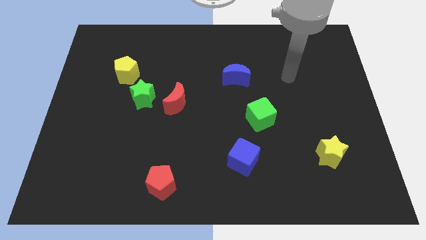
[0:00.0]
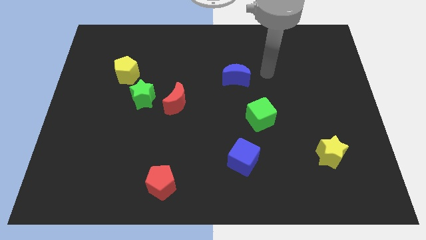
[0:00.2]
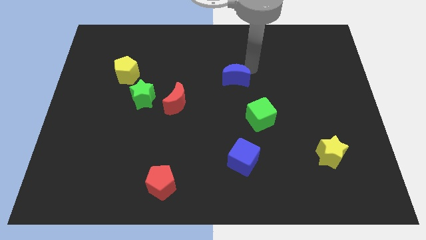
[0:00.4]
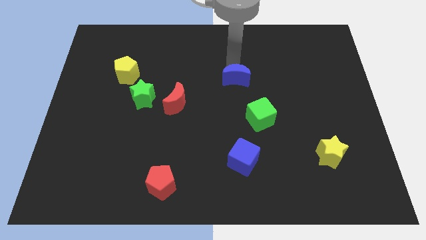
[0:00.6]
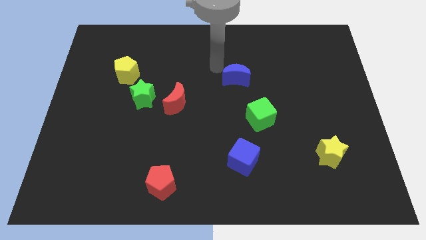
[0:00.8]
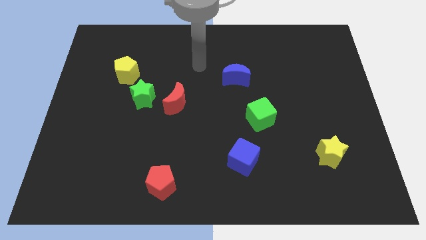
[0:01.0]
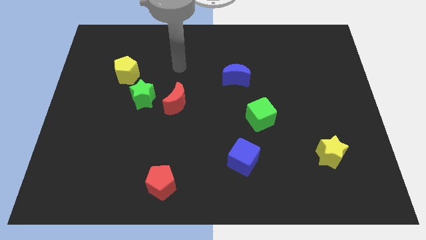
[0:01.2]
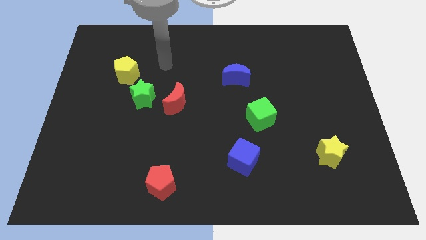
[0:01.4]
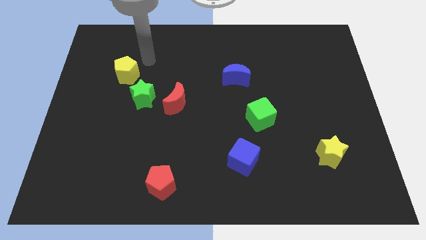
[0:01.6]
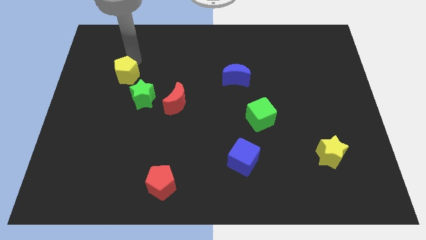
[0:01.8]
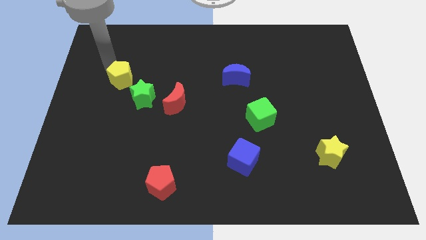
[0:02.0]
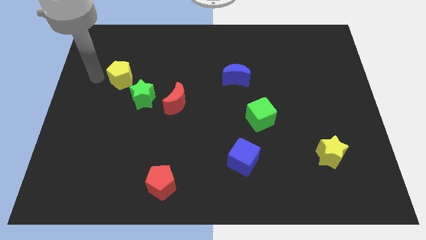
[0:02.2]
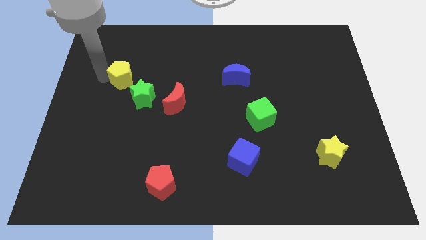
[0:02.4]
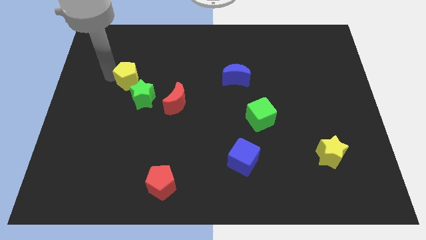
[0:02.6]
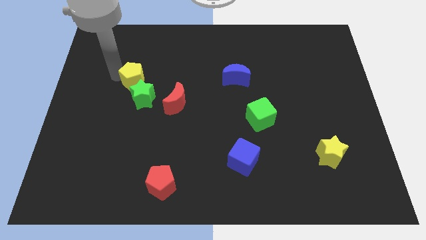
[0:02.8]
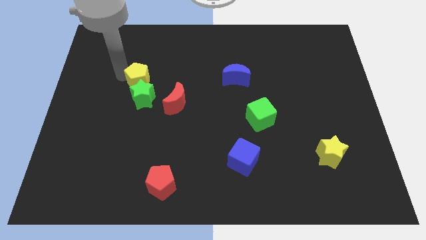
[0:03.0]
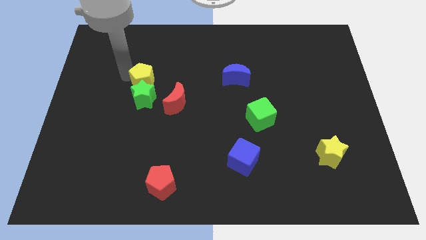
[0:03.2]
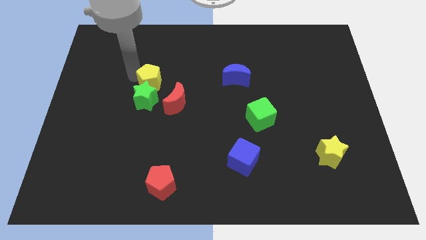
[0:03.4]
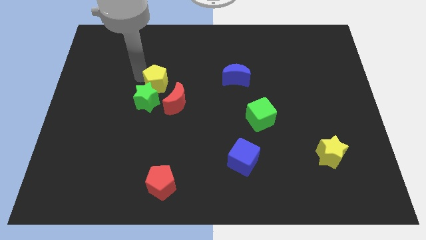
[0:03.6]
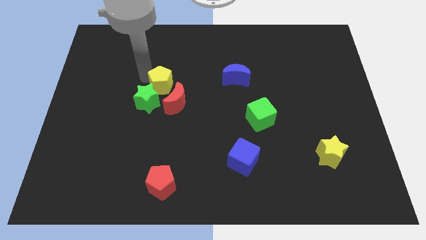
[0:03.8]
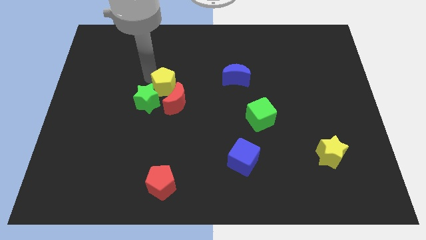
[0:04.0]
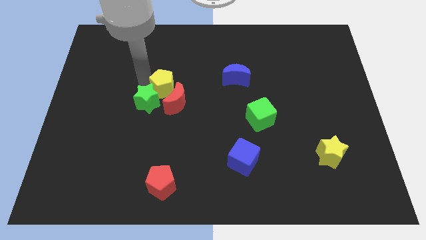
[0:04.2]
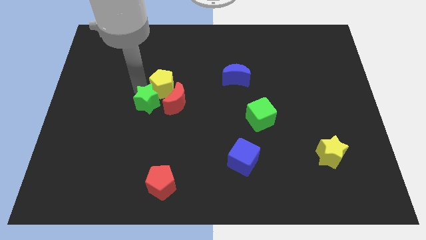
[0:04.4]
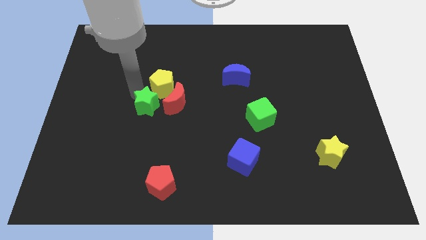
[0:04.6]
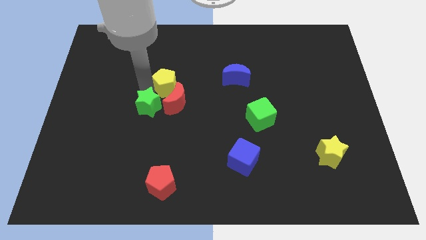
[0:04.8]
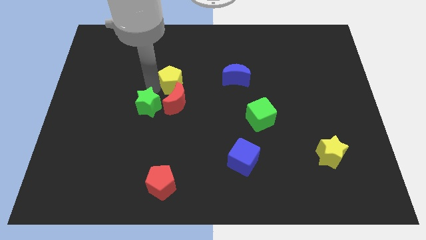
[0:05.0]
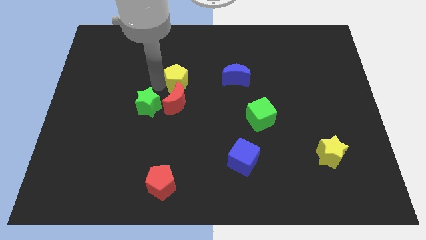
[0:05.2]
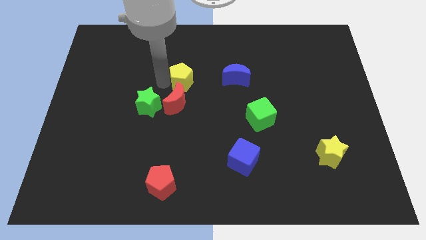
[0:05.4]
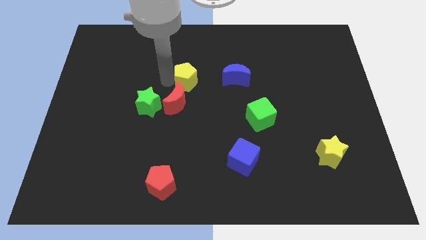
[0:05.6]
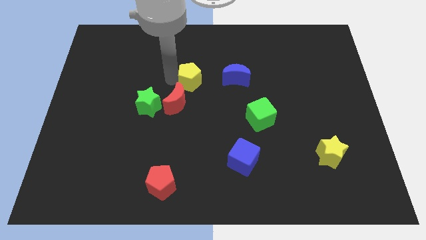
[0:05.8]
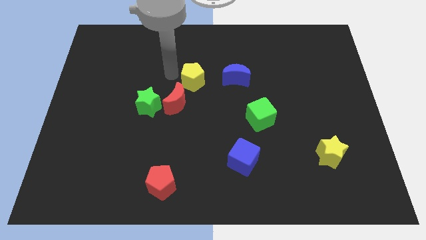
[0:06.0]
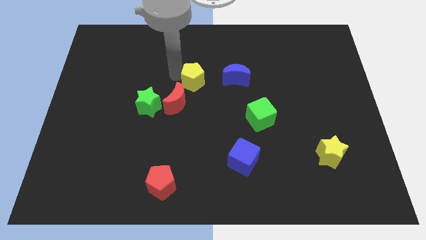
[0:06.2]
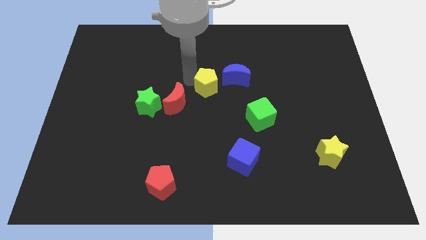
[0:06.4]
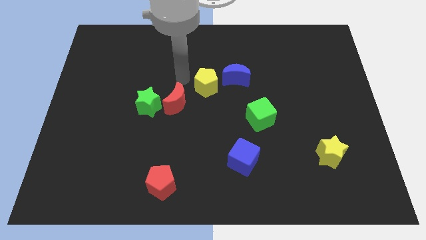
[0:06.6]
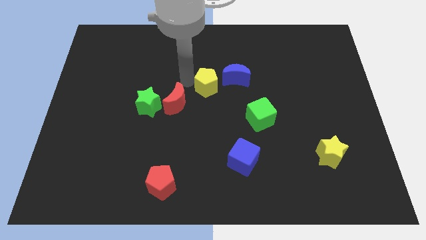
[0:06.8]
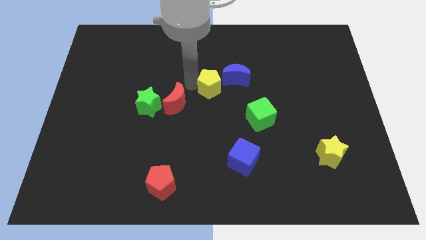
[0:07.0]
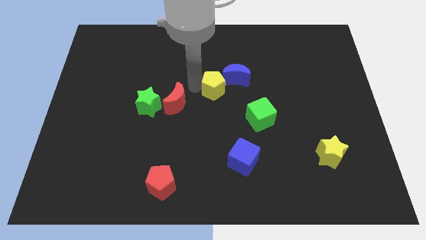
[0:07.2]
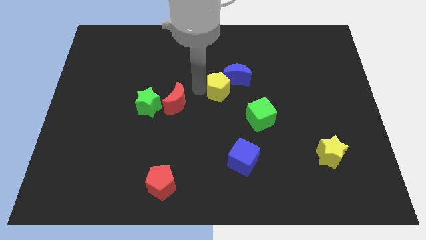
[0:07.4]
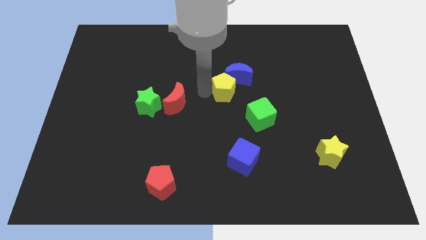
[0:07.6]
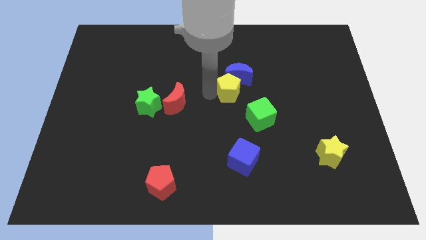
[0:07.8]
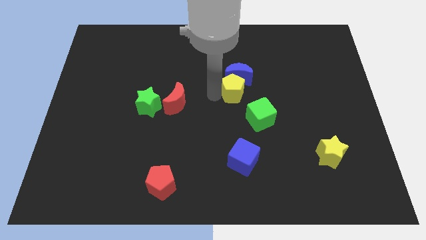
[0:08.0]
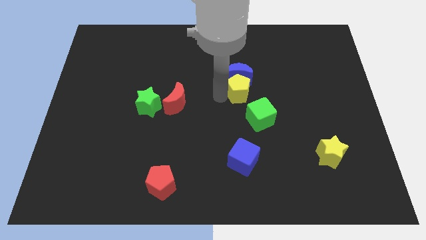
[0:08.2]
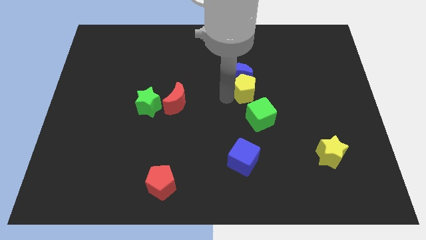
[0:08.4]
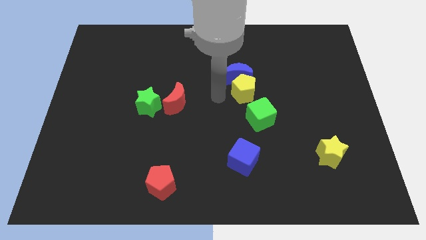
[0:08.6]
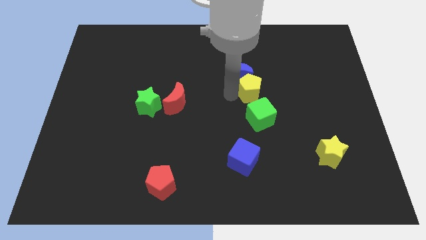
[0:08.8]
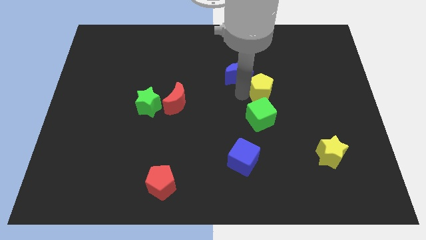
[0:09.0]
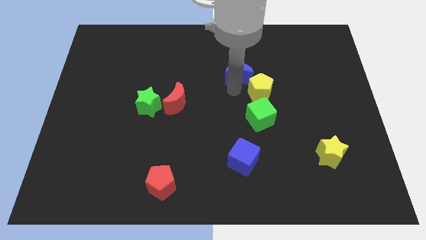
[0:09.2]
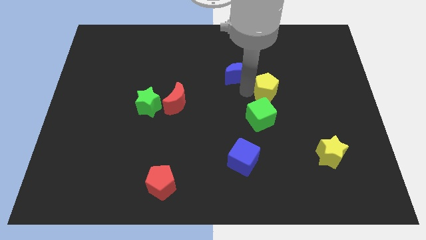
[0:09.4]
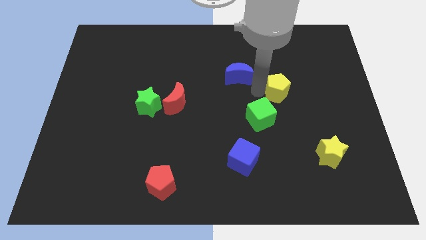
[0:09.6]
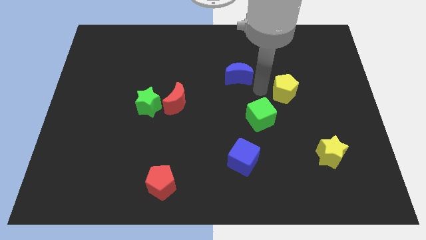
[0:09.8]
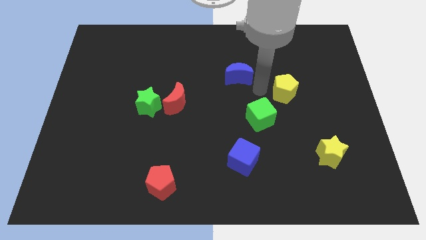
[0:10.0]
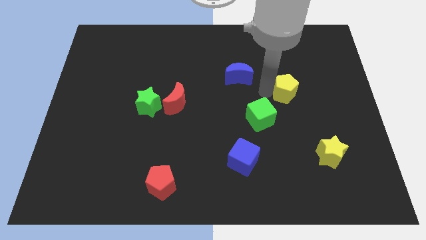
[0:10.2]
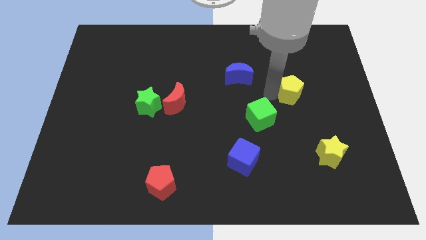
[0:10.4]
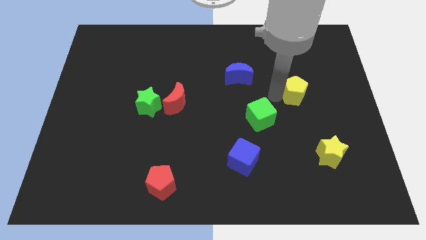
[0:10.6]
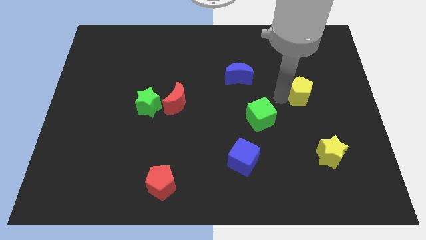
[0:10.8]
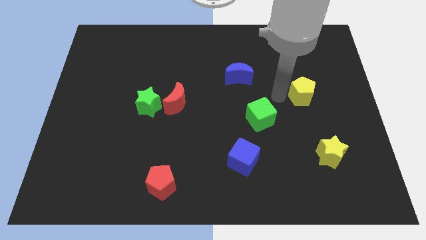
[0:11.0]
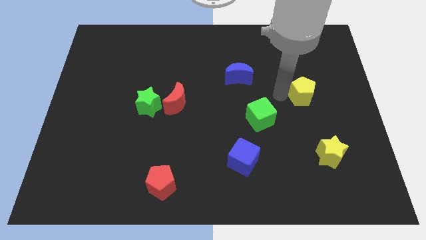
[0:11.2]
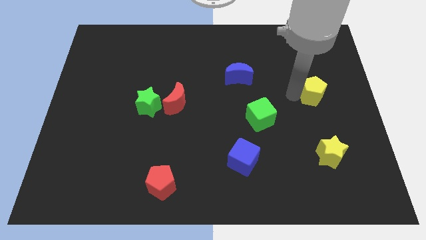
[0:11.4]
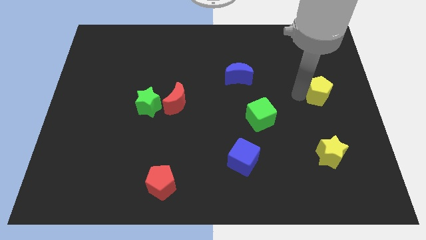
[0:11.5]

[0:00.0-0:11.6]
move the yellow pentagon to the center right
